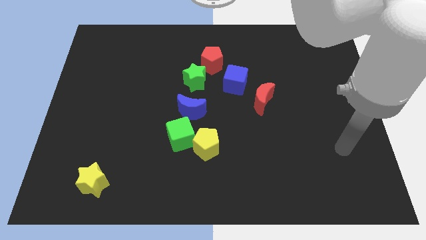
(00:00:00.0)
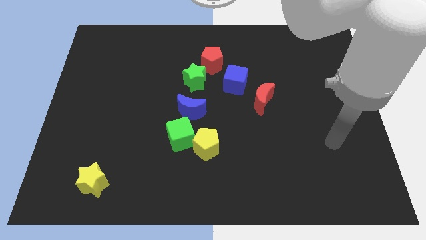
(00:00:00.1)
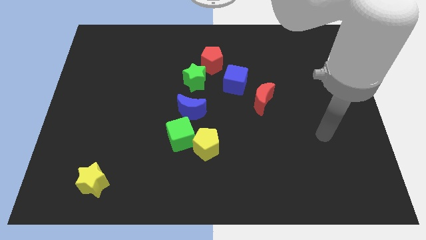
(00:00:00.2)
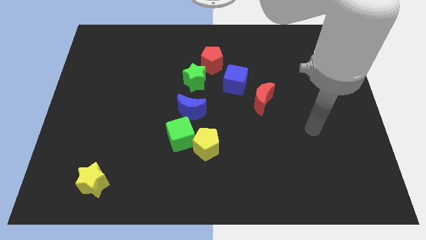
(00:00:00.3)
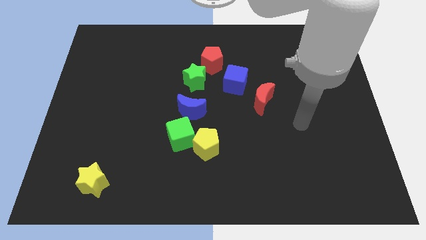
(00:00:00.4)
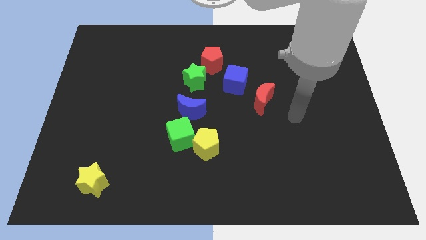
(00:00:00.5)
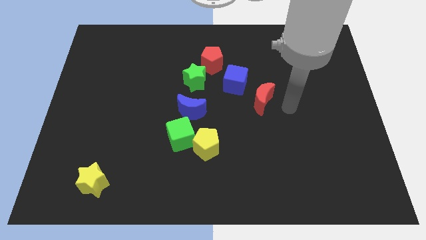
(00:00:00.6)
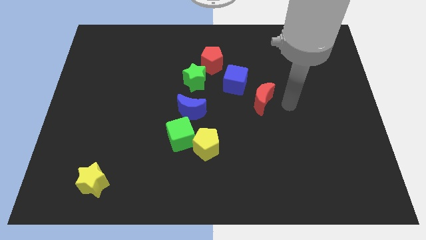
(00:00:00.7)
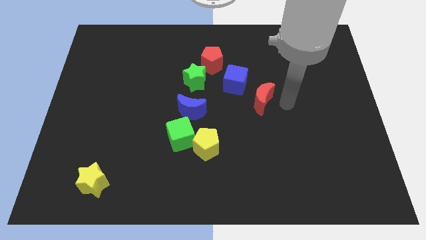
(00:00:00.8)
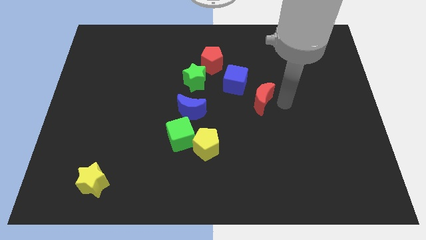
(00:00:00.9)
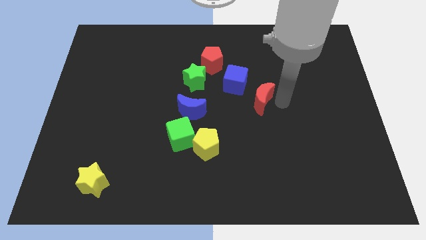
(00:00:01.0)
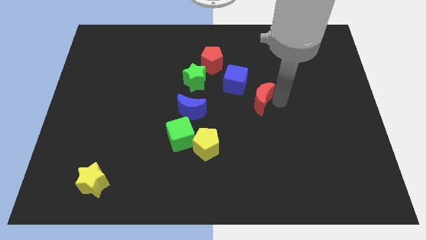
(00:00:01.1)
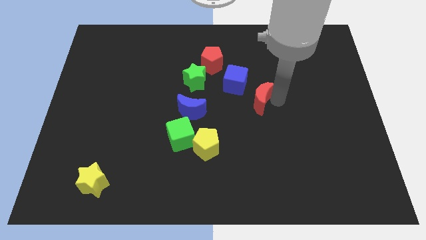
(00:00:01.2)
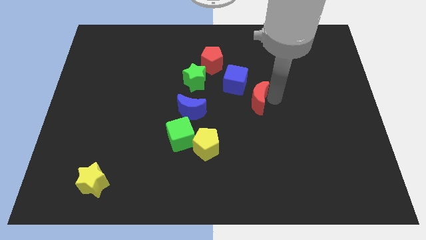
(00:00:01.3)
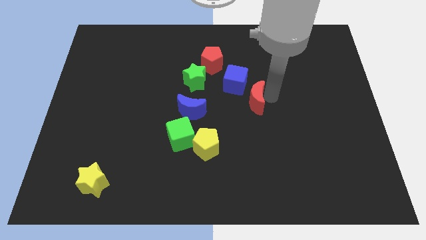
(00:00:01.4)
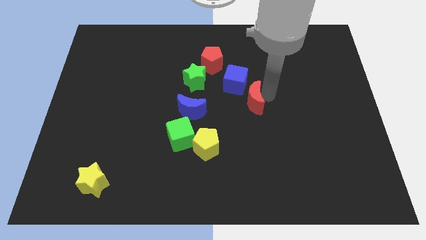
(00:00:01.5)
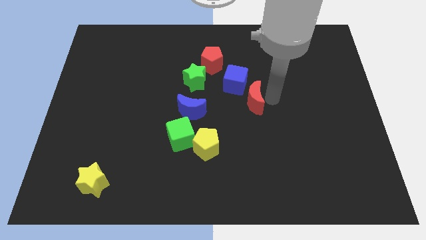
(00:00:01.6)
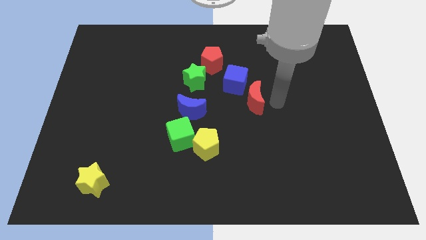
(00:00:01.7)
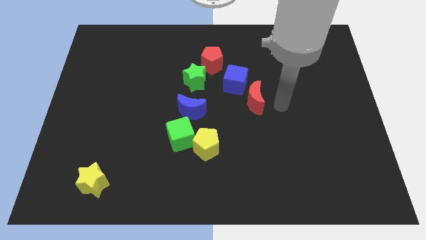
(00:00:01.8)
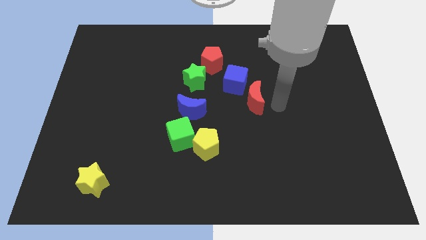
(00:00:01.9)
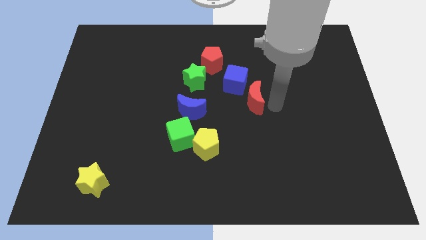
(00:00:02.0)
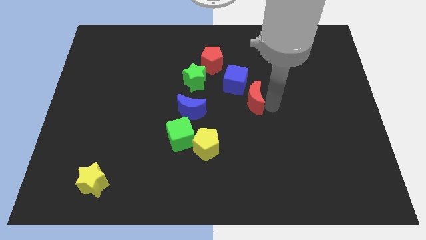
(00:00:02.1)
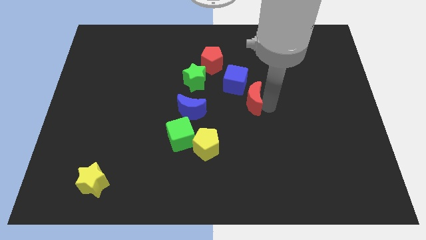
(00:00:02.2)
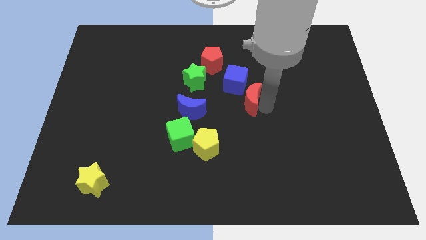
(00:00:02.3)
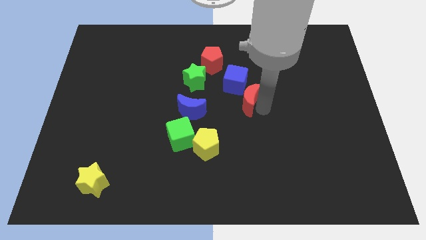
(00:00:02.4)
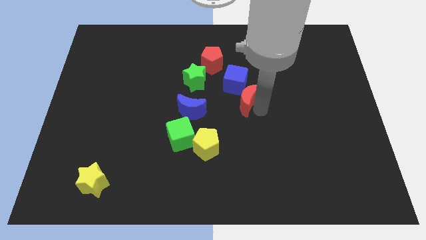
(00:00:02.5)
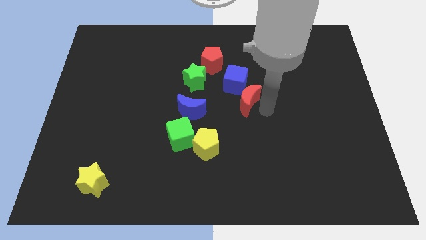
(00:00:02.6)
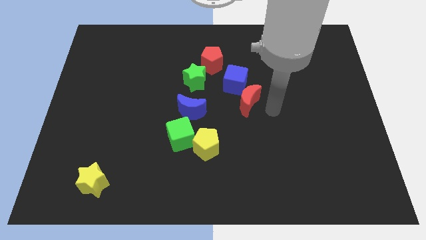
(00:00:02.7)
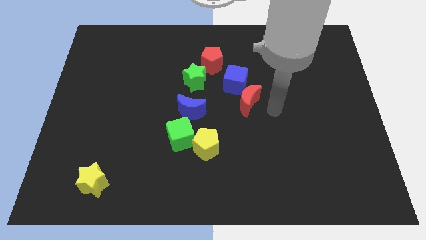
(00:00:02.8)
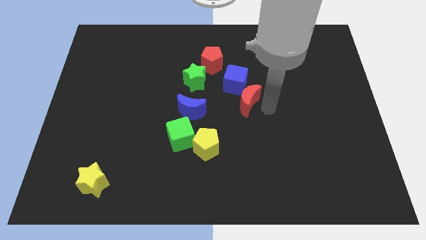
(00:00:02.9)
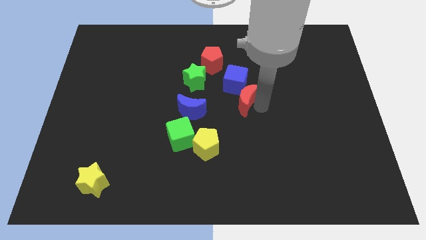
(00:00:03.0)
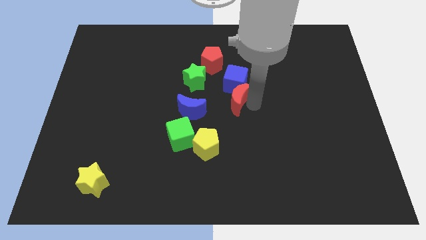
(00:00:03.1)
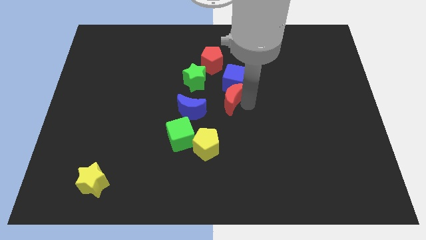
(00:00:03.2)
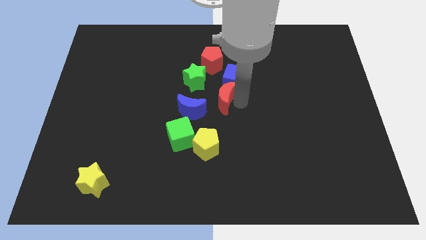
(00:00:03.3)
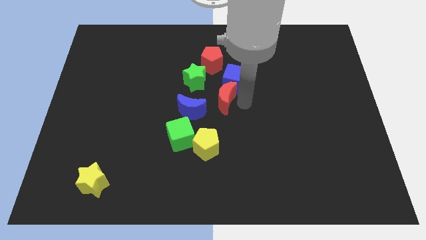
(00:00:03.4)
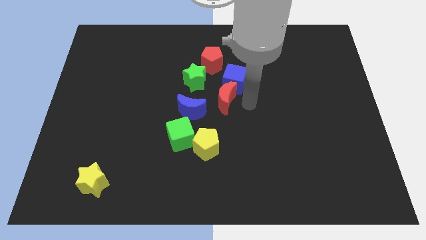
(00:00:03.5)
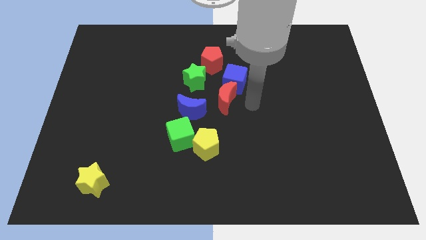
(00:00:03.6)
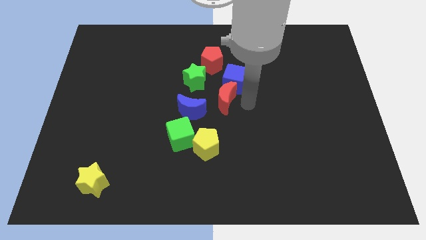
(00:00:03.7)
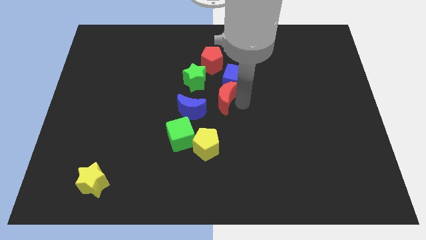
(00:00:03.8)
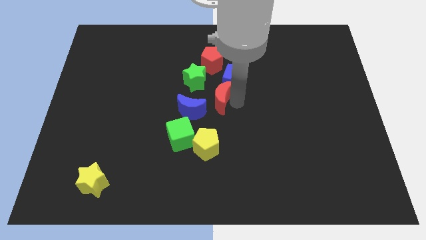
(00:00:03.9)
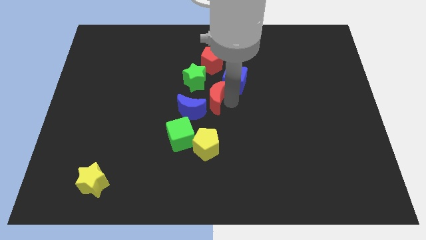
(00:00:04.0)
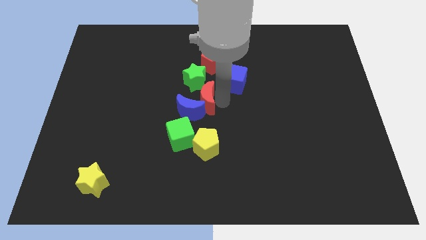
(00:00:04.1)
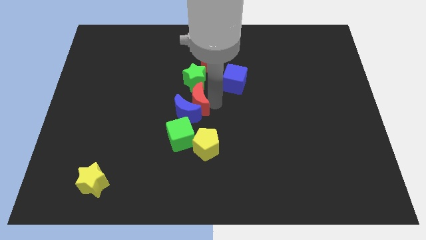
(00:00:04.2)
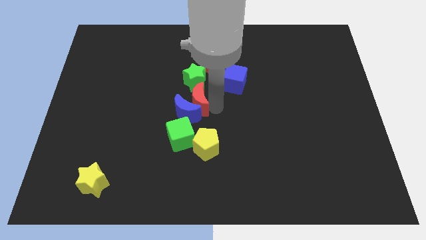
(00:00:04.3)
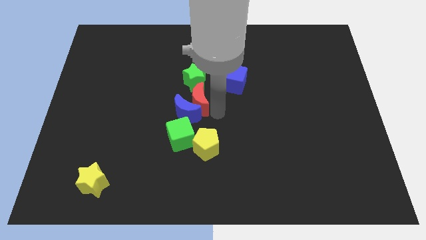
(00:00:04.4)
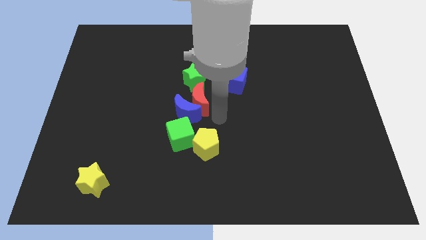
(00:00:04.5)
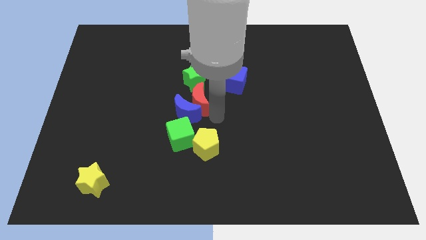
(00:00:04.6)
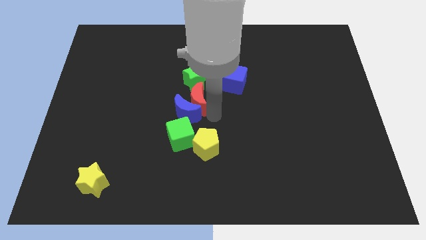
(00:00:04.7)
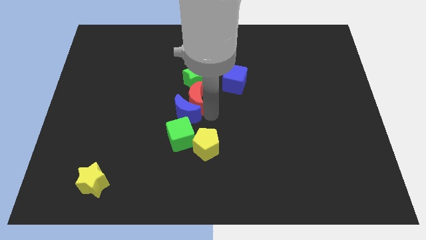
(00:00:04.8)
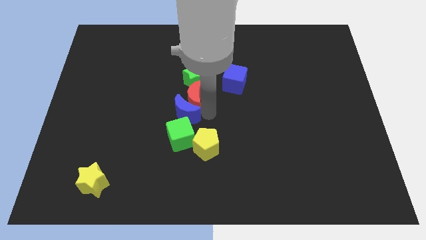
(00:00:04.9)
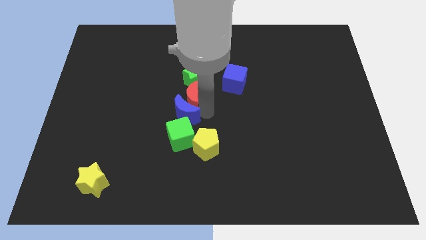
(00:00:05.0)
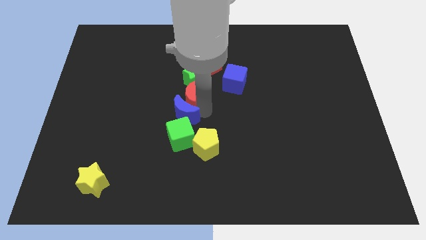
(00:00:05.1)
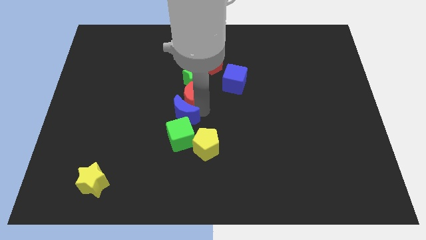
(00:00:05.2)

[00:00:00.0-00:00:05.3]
push the red moon to the left side of the blue cube

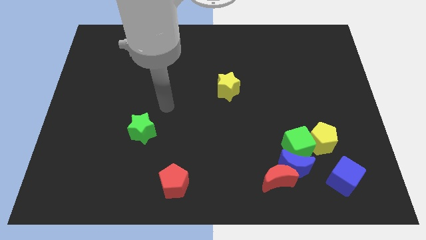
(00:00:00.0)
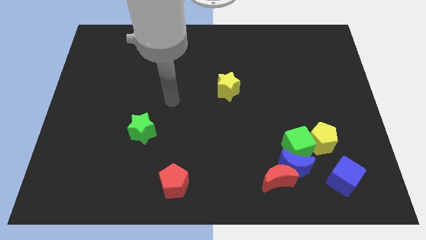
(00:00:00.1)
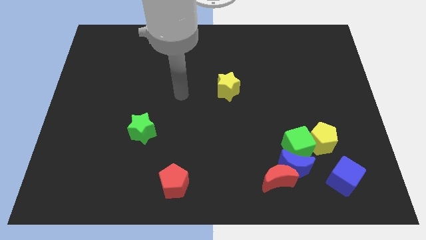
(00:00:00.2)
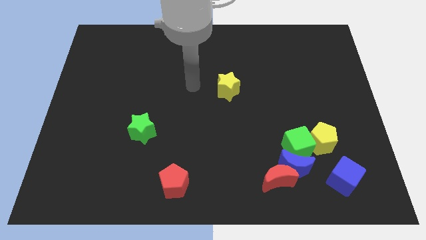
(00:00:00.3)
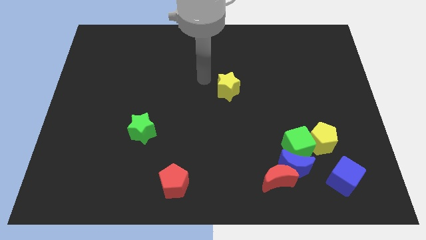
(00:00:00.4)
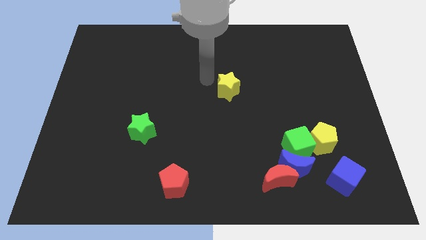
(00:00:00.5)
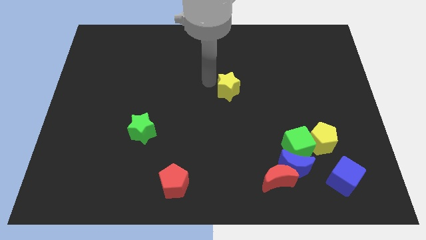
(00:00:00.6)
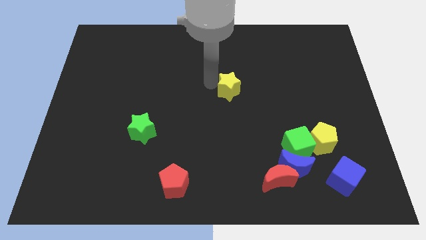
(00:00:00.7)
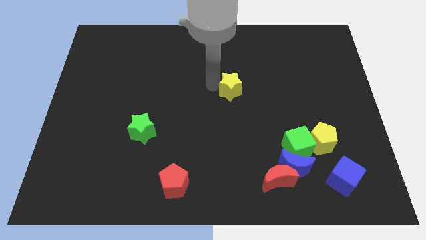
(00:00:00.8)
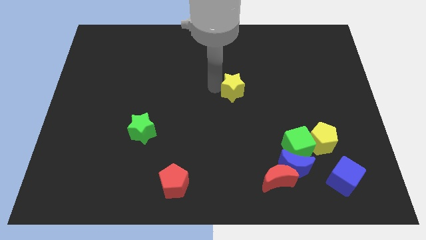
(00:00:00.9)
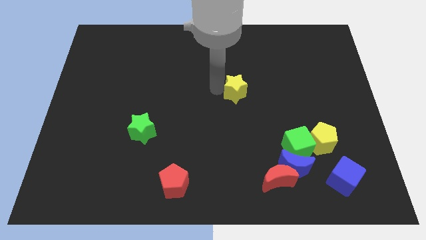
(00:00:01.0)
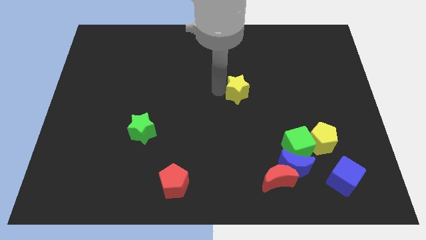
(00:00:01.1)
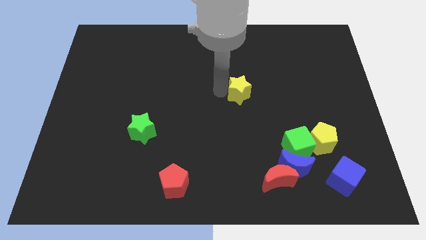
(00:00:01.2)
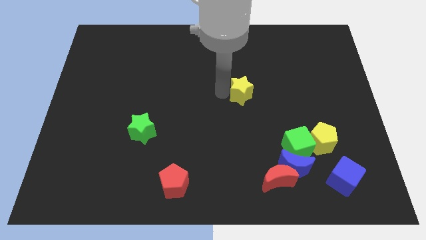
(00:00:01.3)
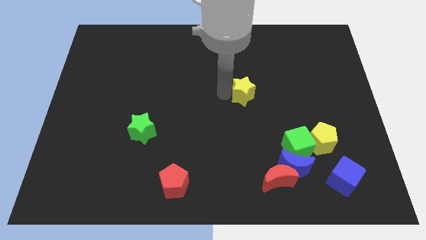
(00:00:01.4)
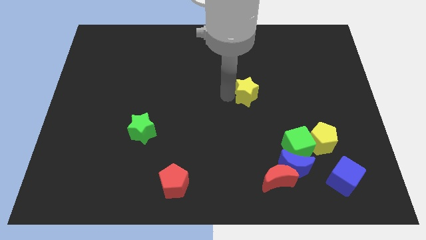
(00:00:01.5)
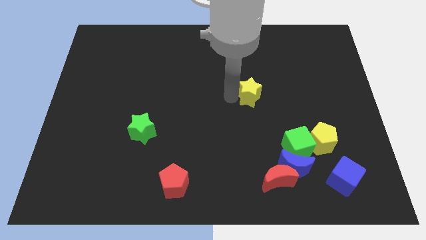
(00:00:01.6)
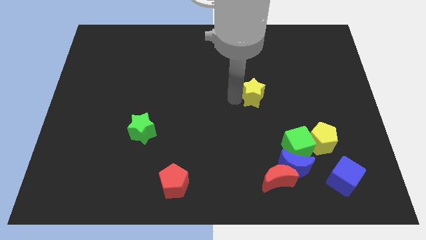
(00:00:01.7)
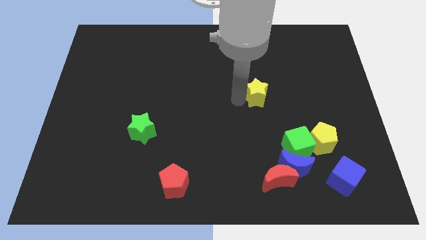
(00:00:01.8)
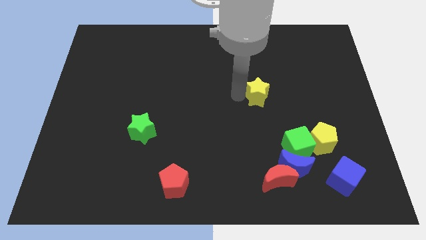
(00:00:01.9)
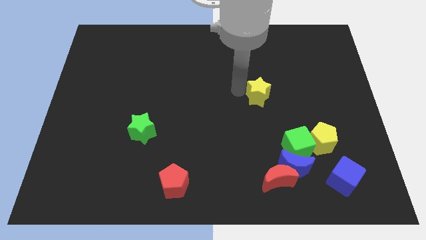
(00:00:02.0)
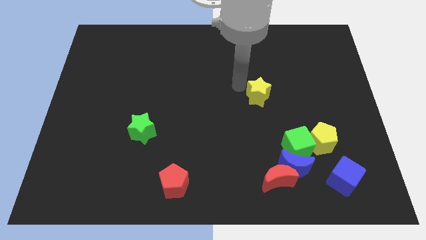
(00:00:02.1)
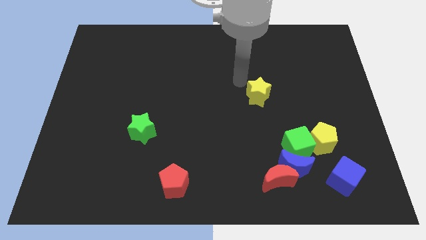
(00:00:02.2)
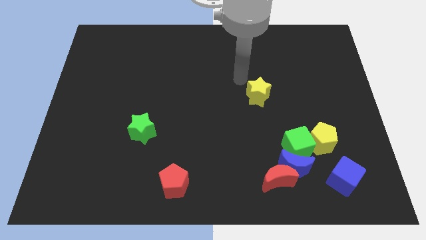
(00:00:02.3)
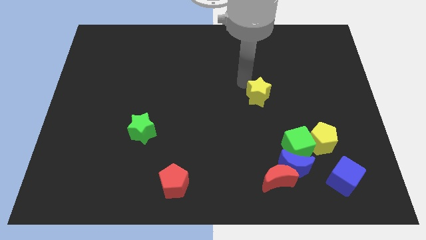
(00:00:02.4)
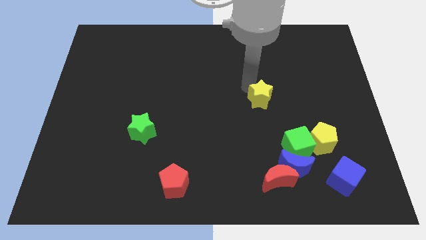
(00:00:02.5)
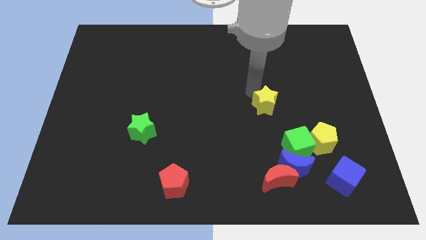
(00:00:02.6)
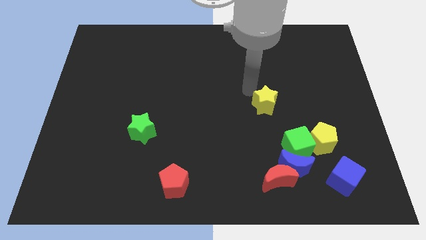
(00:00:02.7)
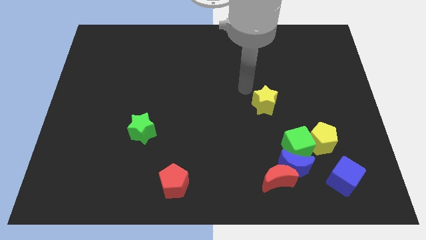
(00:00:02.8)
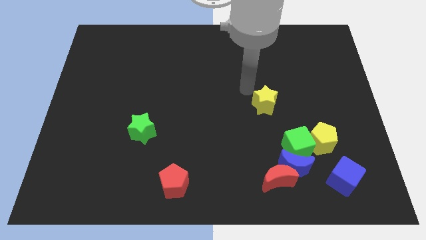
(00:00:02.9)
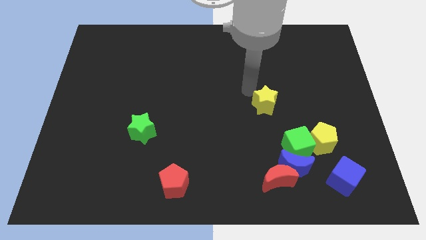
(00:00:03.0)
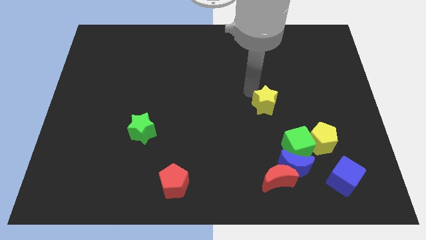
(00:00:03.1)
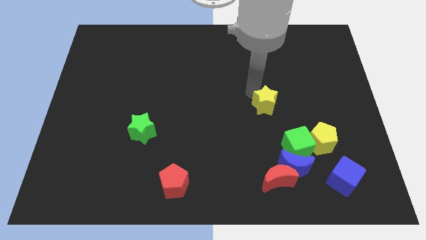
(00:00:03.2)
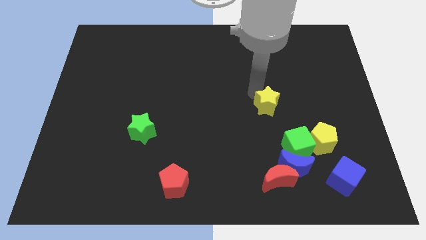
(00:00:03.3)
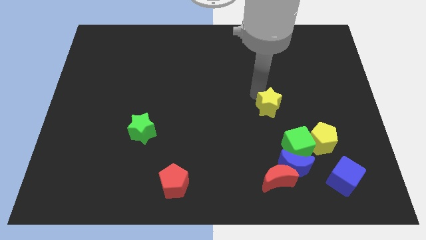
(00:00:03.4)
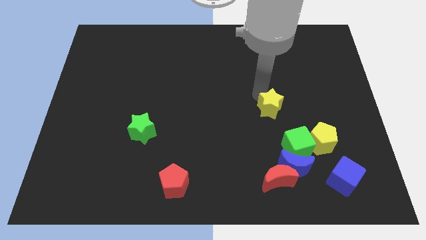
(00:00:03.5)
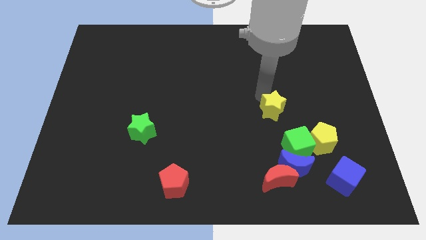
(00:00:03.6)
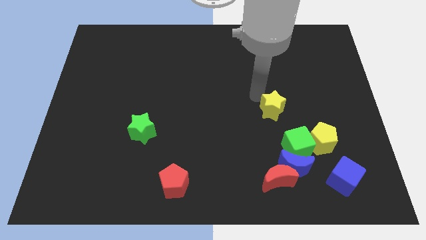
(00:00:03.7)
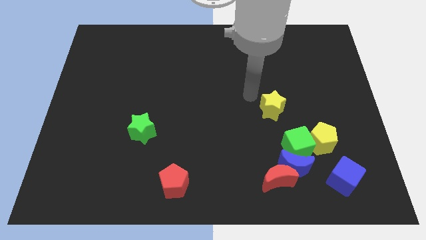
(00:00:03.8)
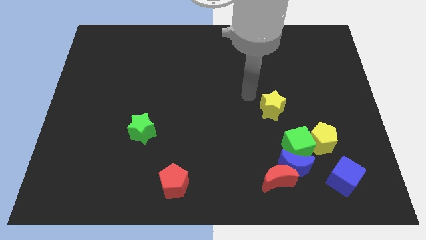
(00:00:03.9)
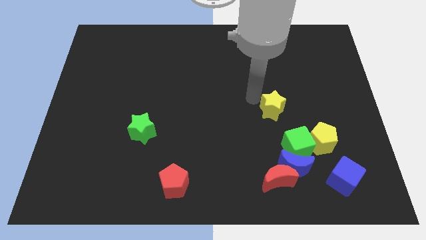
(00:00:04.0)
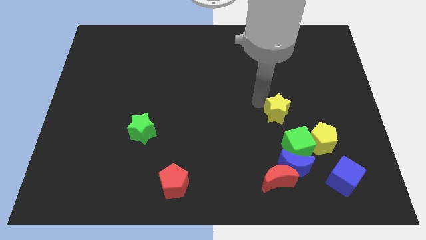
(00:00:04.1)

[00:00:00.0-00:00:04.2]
move the yellow star diagonally up and to the left of the yellow pentagon
